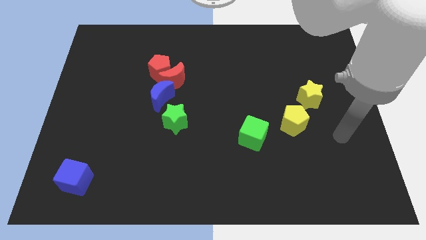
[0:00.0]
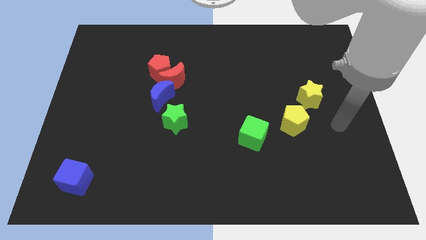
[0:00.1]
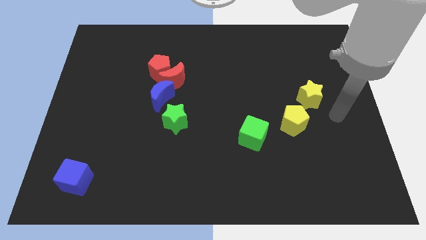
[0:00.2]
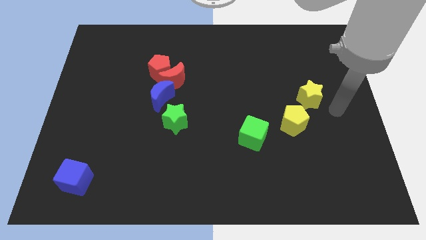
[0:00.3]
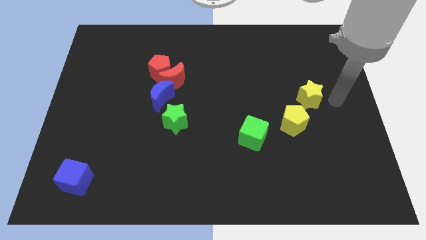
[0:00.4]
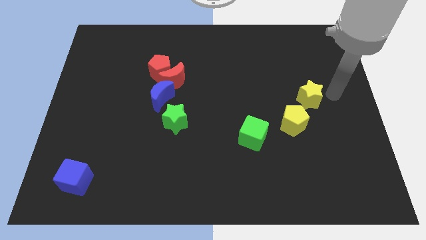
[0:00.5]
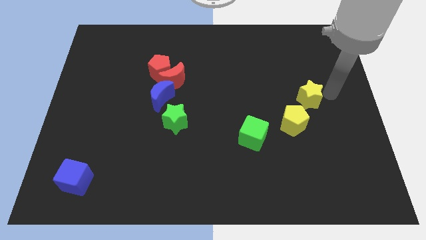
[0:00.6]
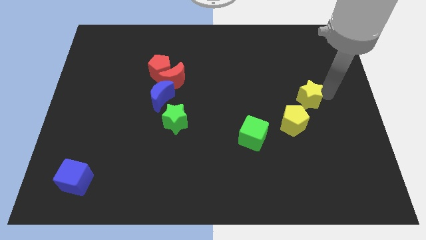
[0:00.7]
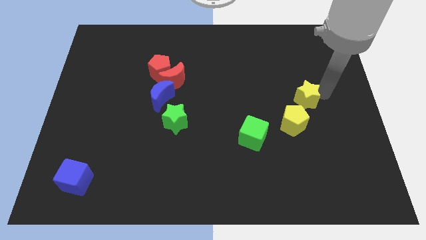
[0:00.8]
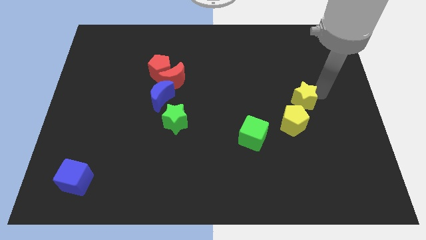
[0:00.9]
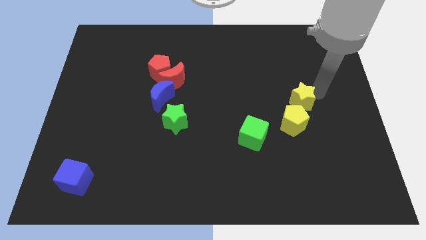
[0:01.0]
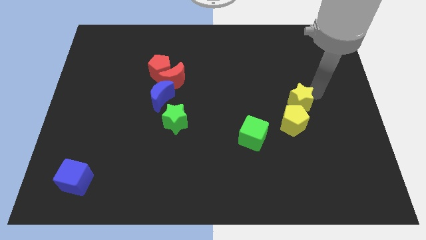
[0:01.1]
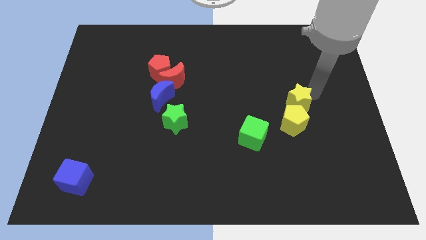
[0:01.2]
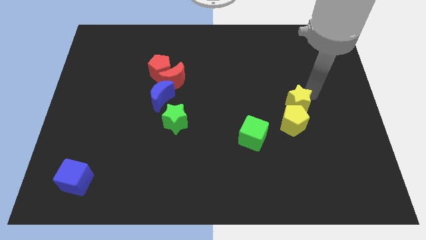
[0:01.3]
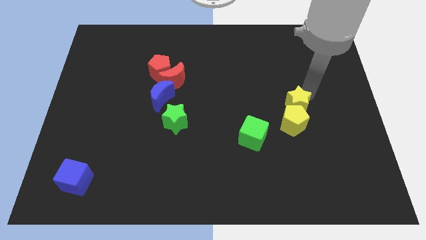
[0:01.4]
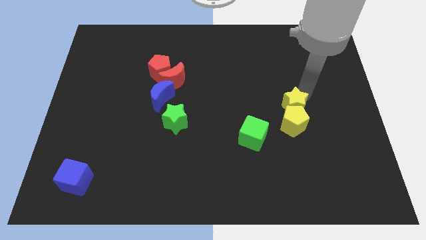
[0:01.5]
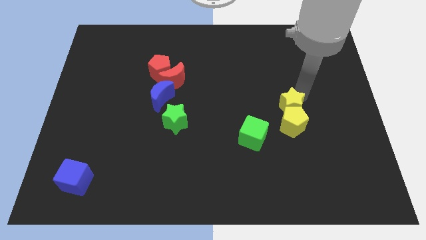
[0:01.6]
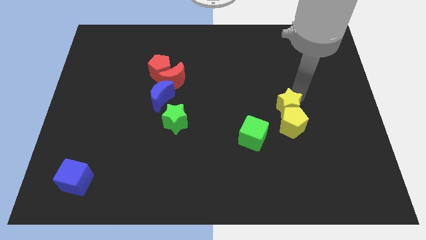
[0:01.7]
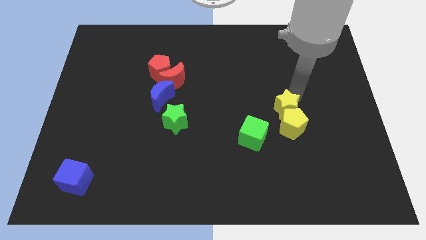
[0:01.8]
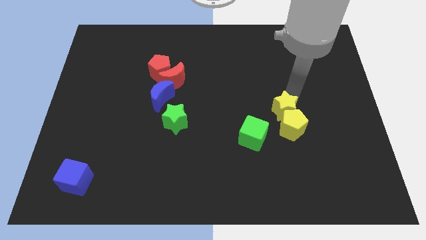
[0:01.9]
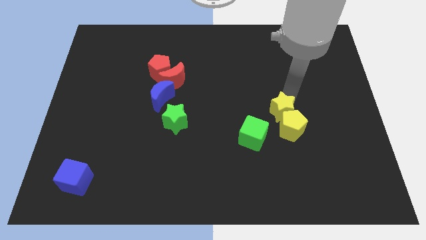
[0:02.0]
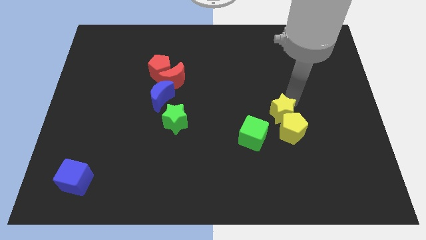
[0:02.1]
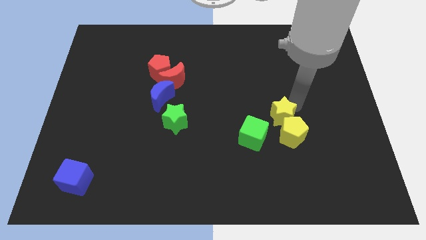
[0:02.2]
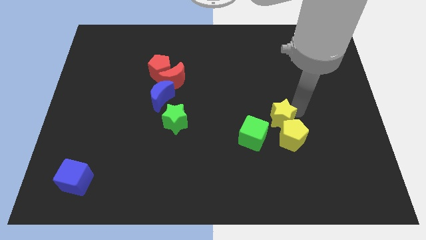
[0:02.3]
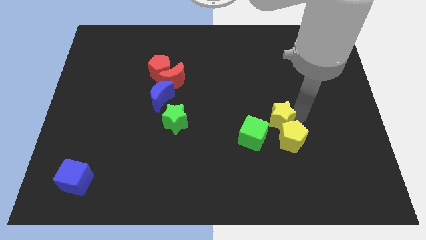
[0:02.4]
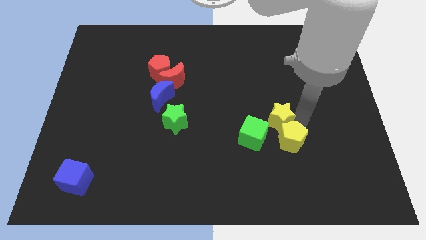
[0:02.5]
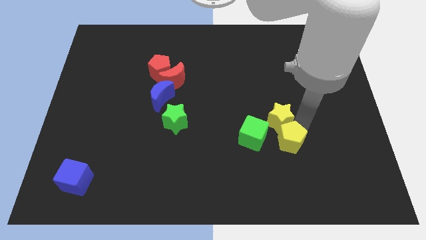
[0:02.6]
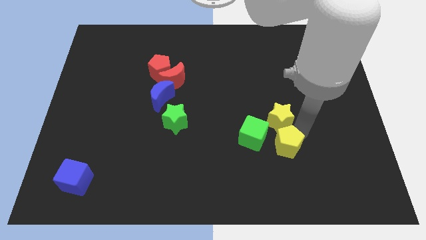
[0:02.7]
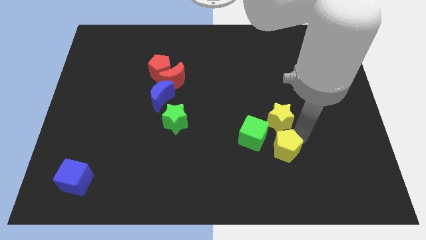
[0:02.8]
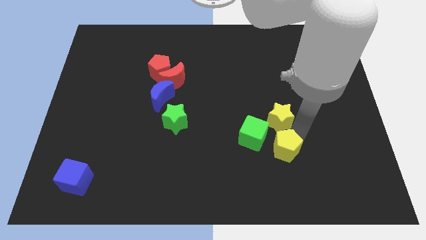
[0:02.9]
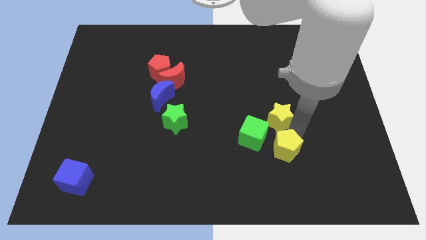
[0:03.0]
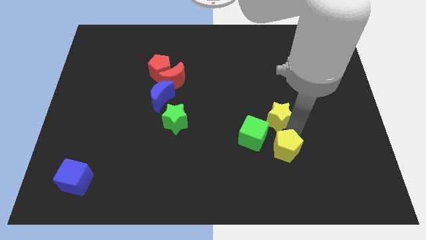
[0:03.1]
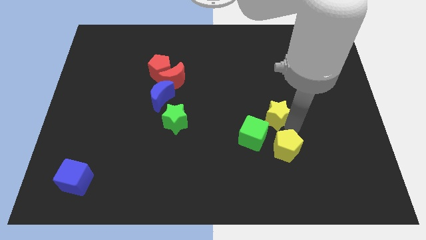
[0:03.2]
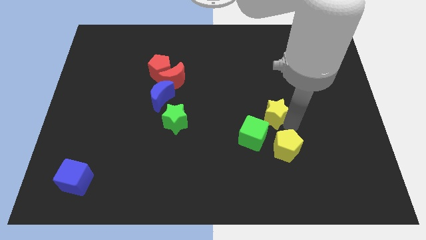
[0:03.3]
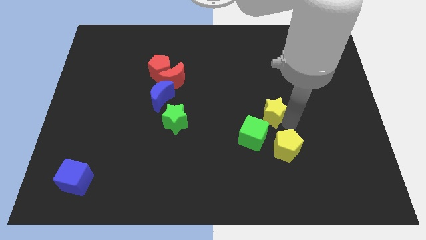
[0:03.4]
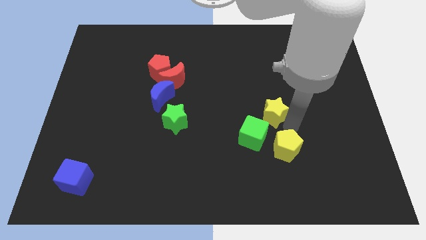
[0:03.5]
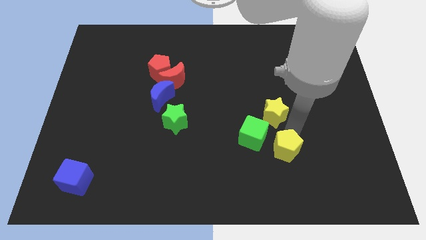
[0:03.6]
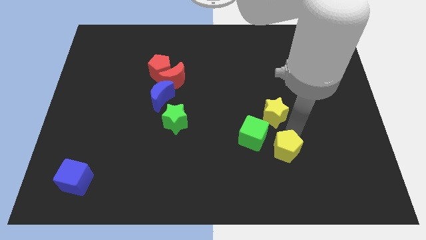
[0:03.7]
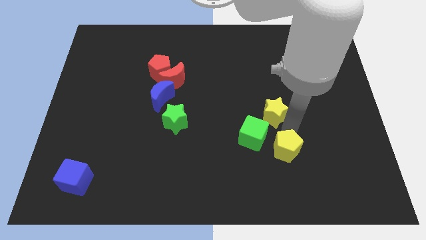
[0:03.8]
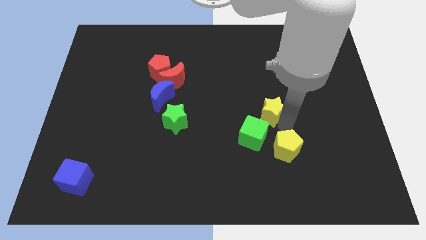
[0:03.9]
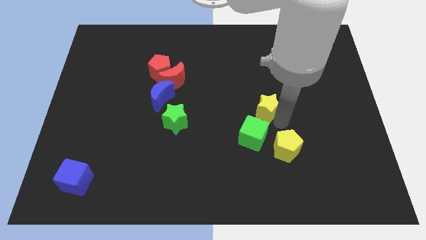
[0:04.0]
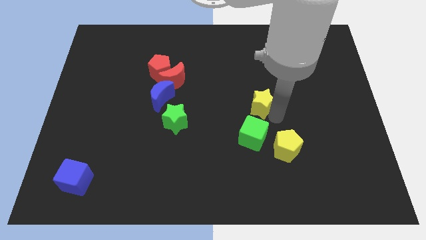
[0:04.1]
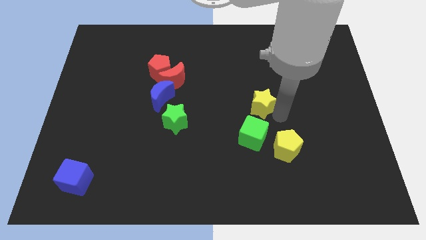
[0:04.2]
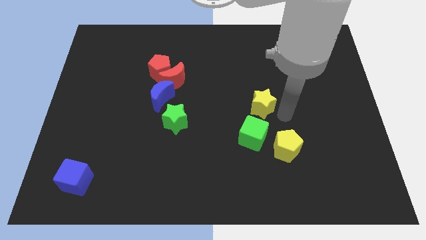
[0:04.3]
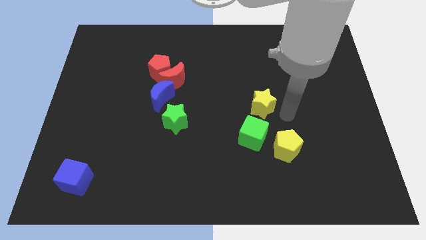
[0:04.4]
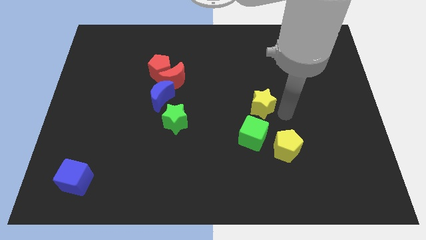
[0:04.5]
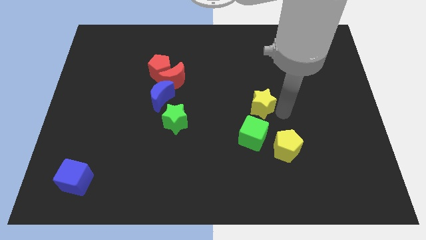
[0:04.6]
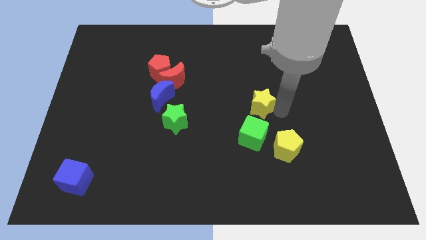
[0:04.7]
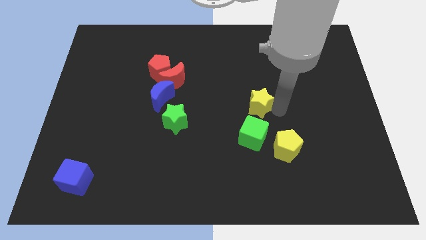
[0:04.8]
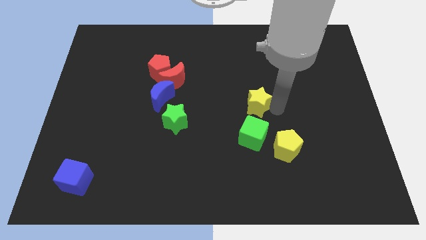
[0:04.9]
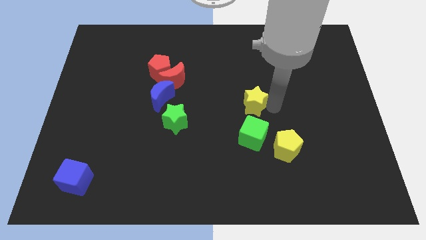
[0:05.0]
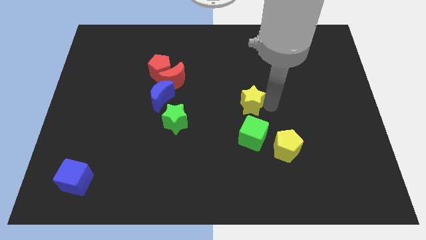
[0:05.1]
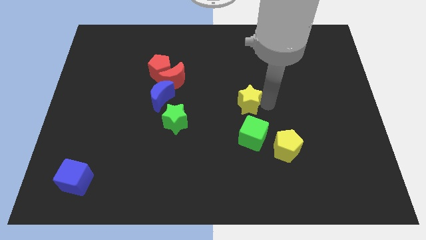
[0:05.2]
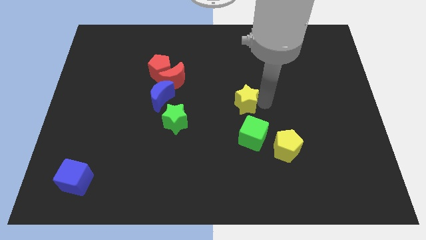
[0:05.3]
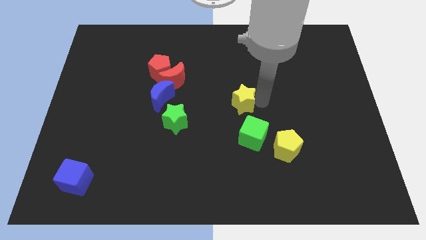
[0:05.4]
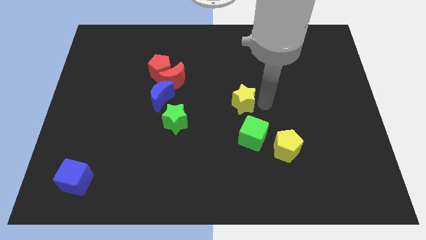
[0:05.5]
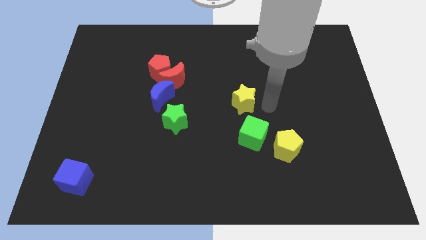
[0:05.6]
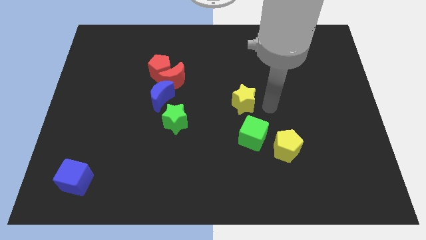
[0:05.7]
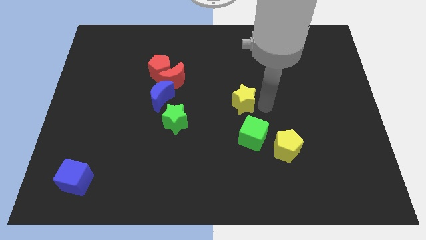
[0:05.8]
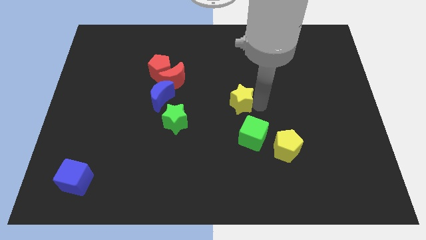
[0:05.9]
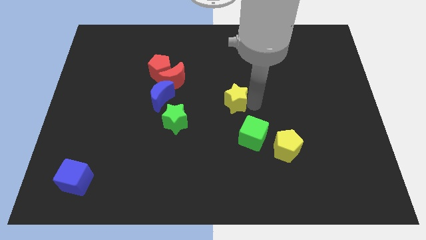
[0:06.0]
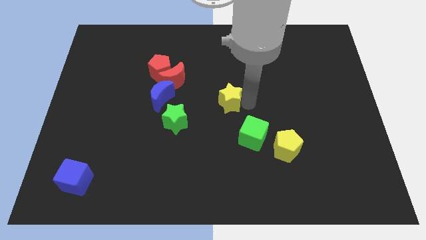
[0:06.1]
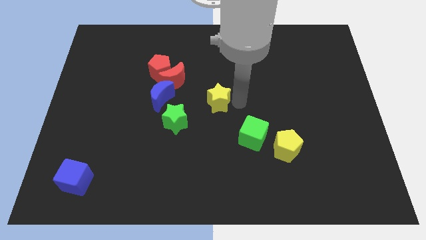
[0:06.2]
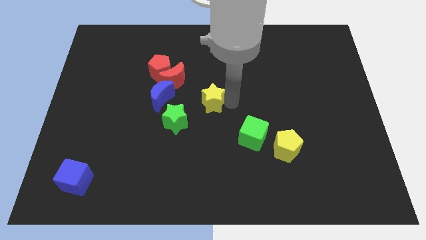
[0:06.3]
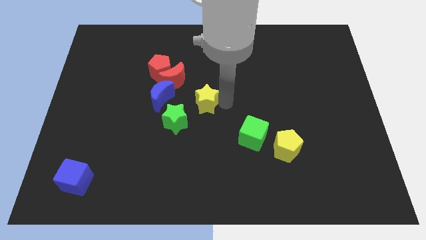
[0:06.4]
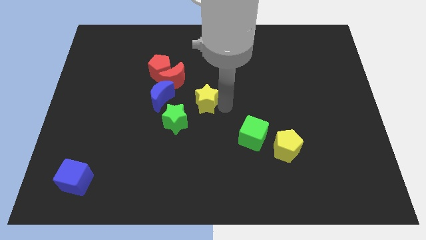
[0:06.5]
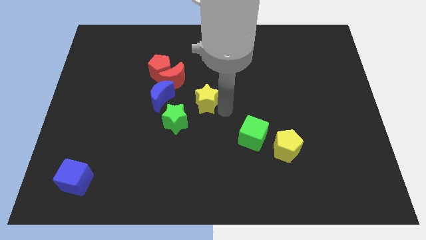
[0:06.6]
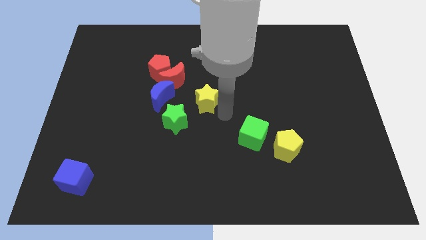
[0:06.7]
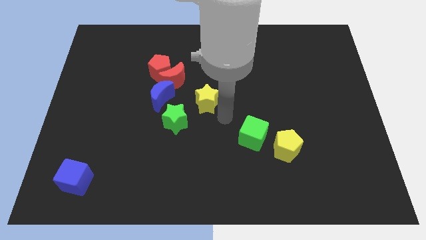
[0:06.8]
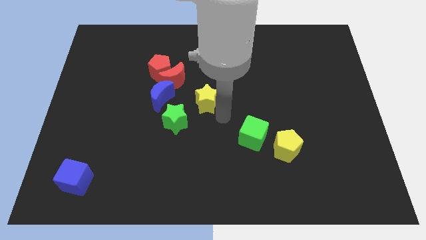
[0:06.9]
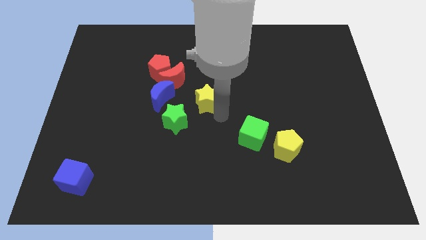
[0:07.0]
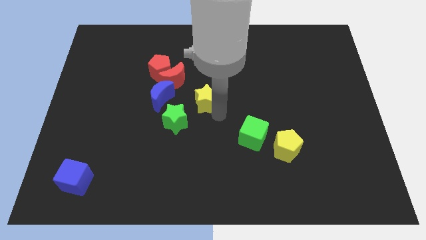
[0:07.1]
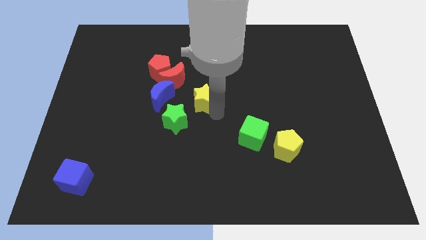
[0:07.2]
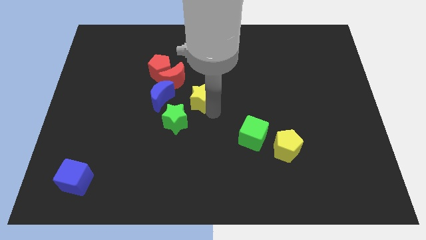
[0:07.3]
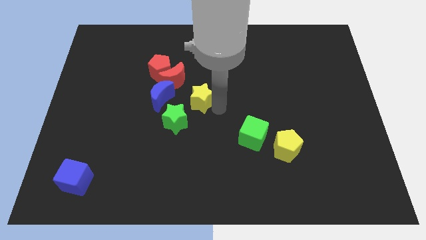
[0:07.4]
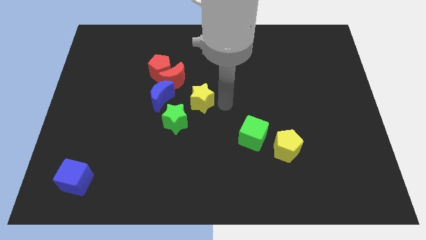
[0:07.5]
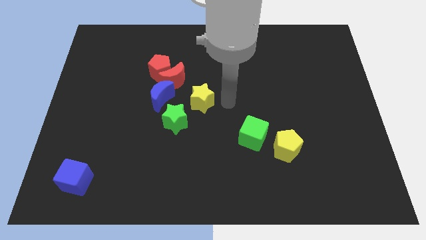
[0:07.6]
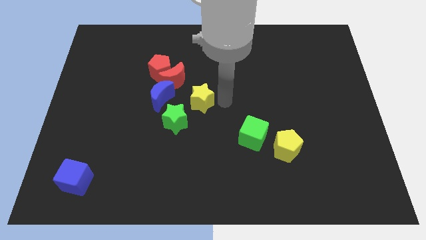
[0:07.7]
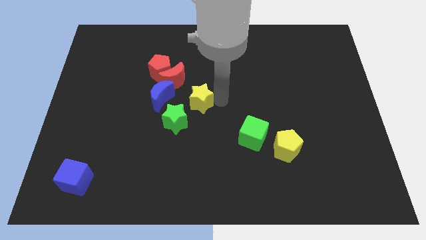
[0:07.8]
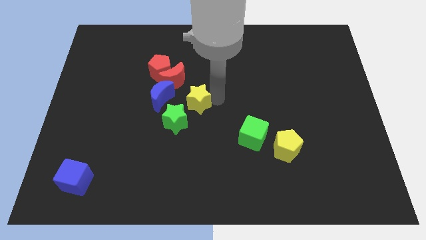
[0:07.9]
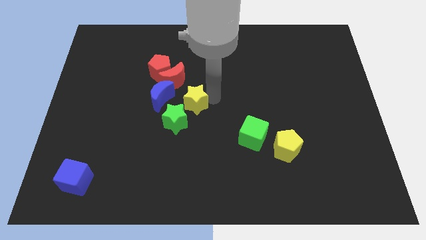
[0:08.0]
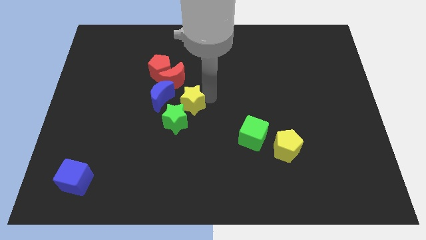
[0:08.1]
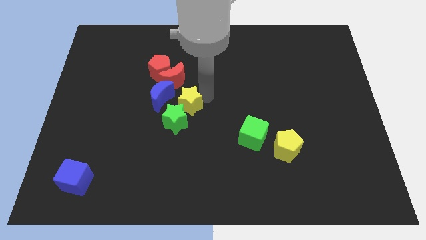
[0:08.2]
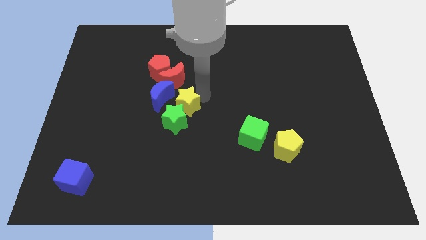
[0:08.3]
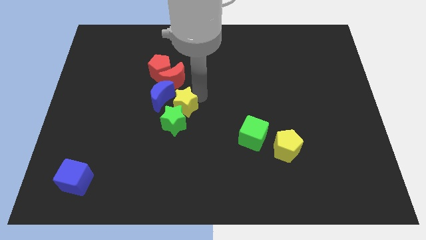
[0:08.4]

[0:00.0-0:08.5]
put the yellow star to the blue moon
